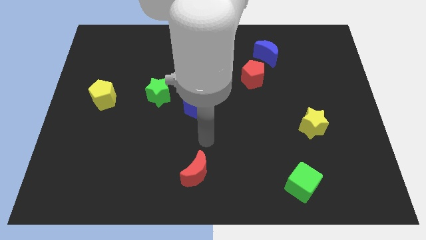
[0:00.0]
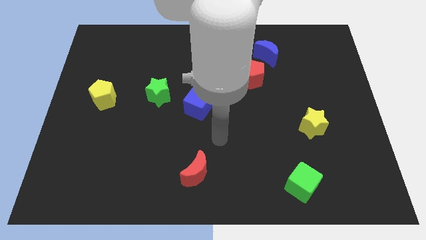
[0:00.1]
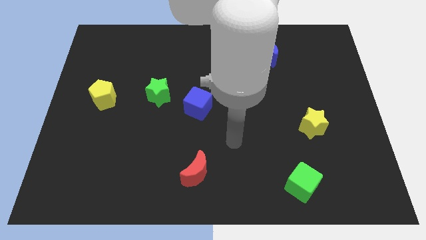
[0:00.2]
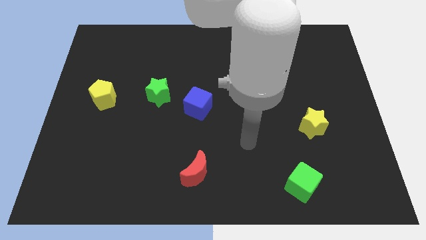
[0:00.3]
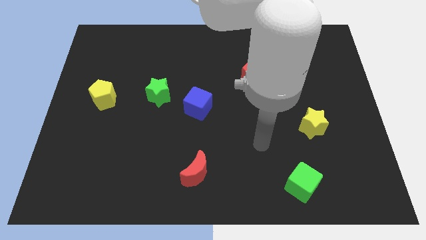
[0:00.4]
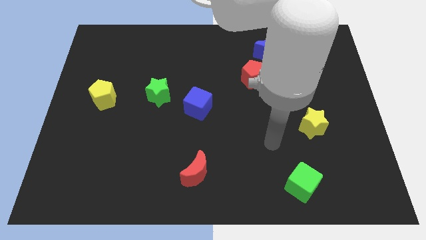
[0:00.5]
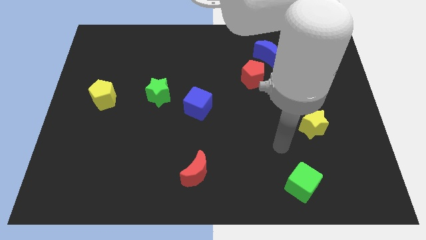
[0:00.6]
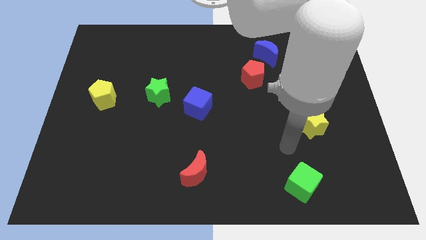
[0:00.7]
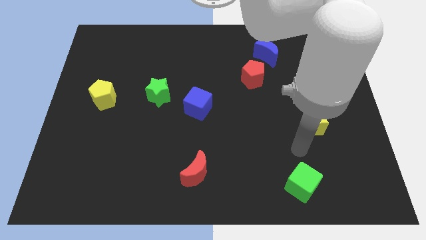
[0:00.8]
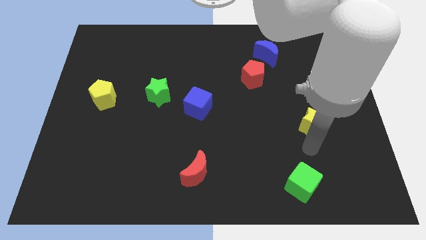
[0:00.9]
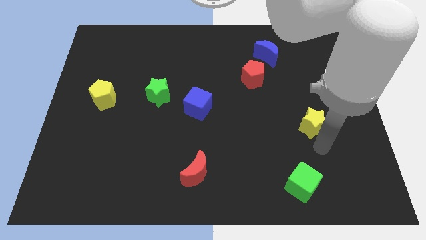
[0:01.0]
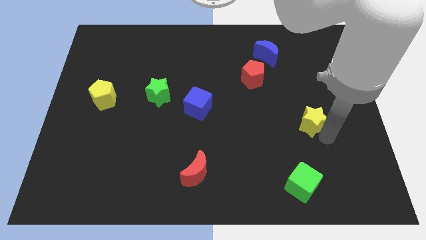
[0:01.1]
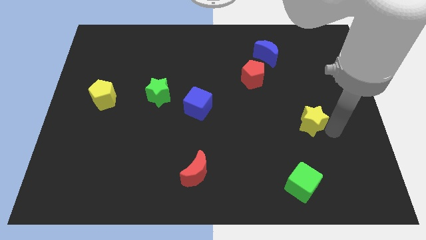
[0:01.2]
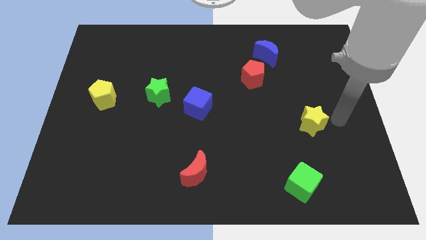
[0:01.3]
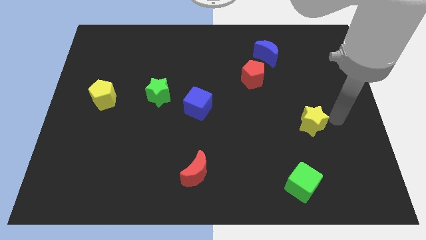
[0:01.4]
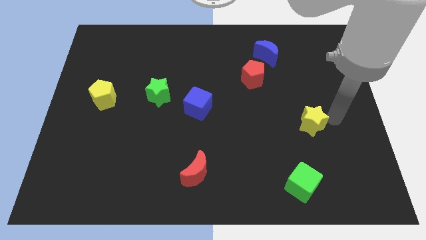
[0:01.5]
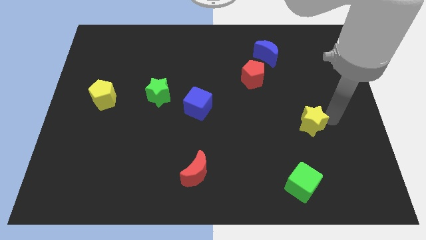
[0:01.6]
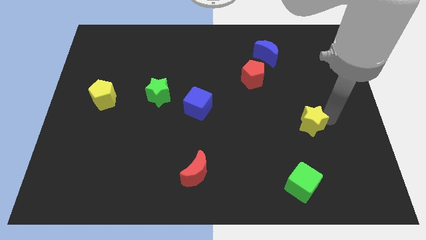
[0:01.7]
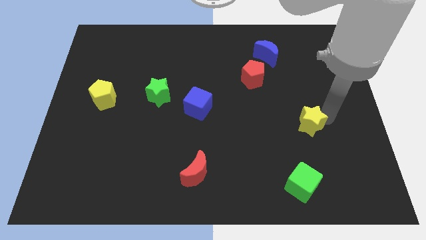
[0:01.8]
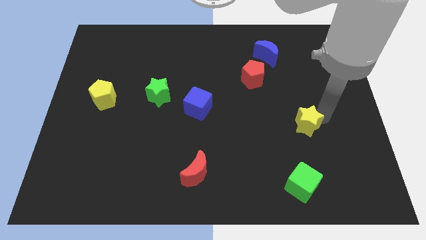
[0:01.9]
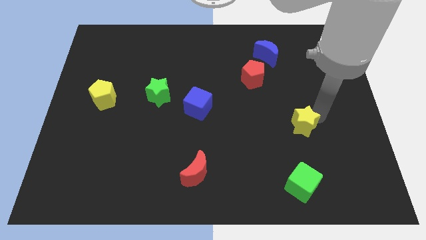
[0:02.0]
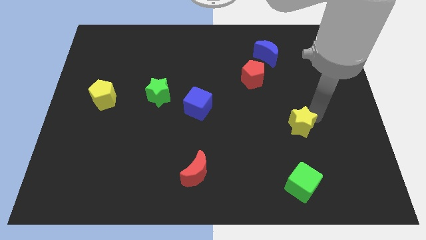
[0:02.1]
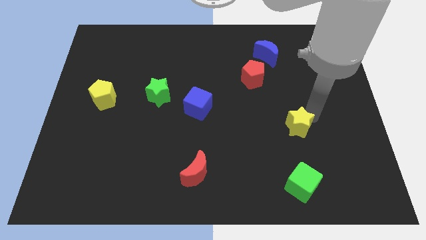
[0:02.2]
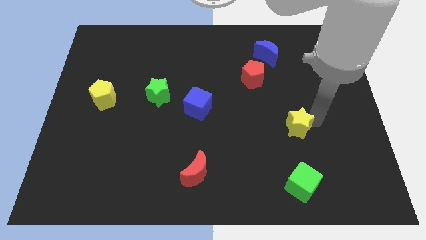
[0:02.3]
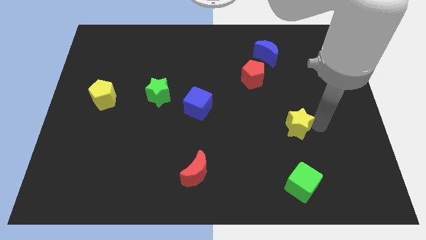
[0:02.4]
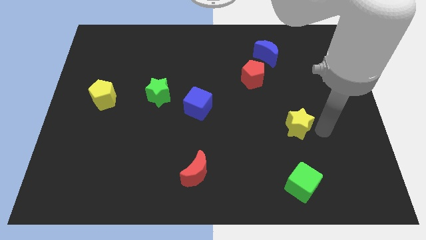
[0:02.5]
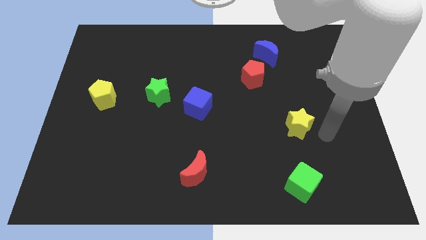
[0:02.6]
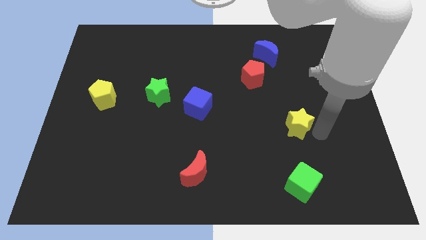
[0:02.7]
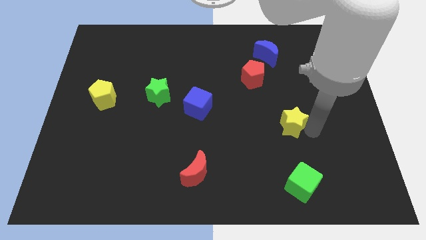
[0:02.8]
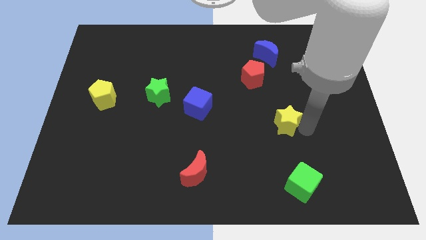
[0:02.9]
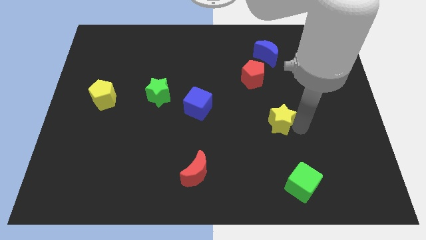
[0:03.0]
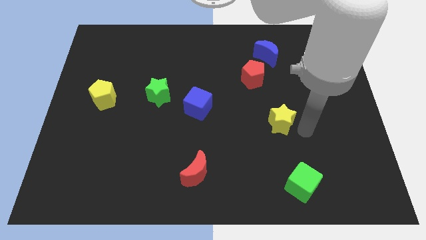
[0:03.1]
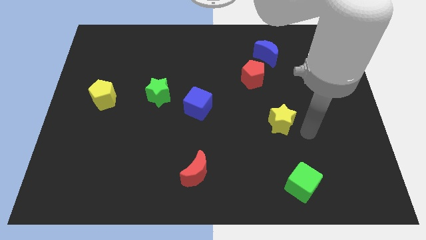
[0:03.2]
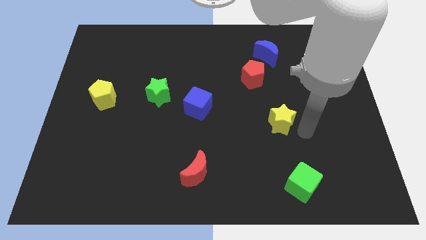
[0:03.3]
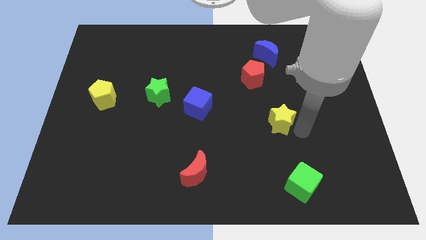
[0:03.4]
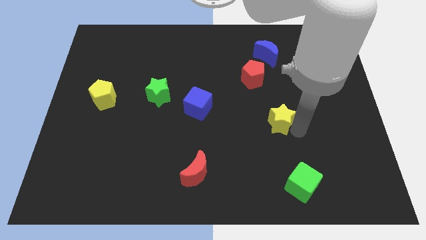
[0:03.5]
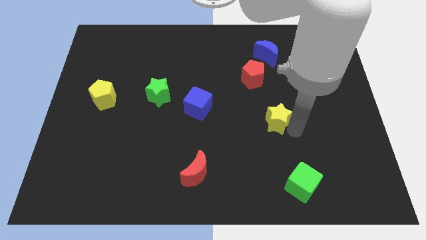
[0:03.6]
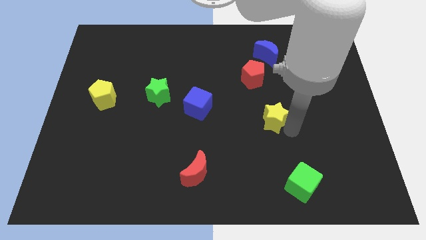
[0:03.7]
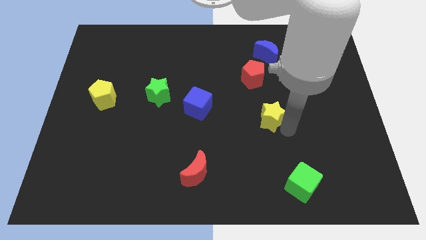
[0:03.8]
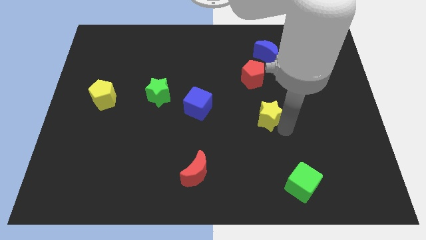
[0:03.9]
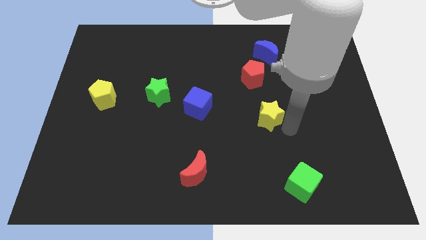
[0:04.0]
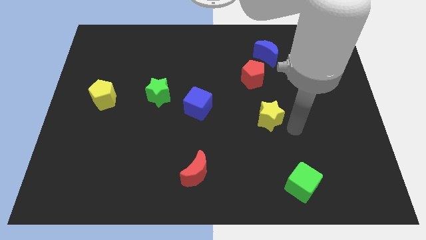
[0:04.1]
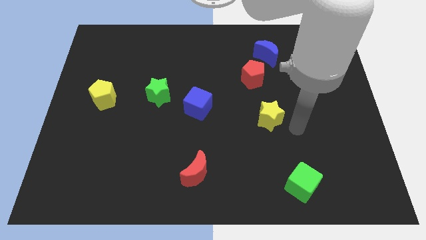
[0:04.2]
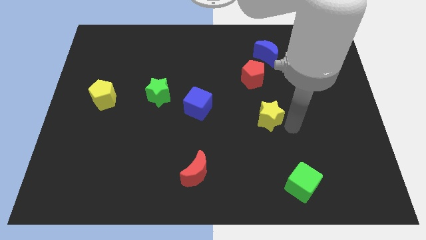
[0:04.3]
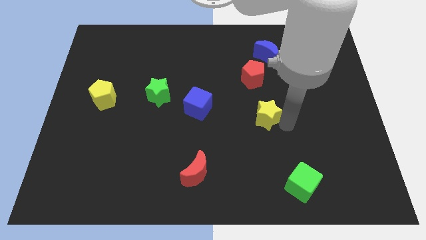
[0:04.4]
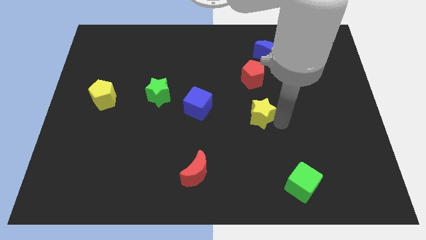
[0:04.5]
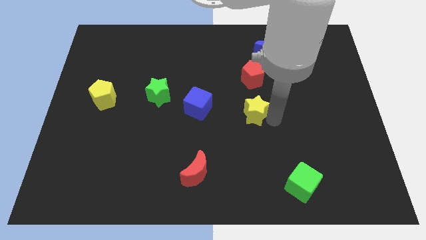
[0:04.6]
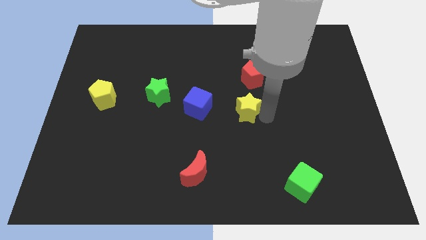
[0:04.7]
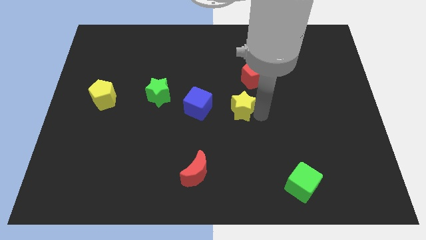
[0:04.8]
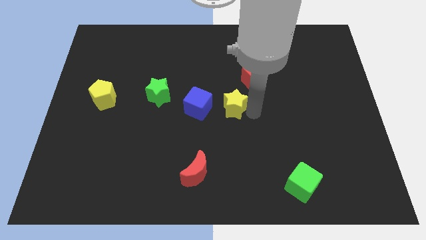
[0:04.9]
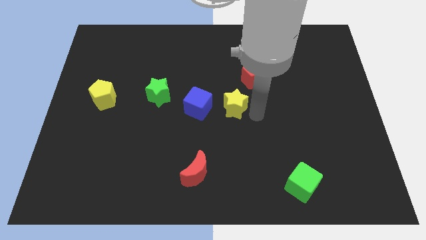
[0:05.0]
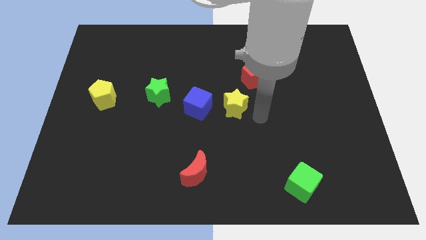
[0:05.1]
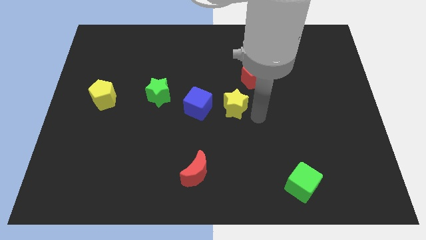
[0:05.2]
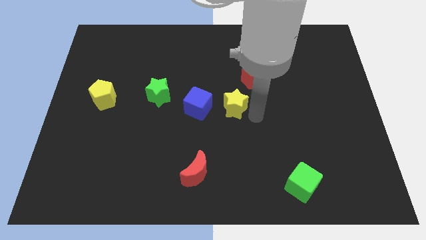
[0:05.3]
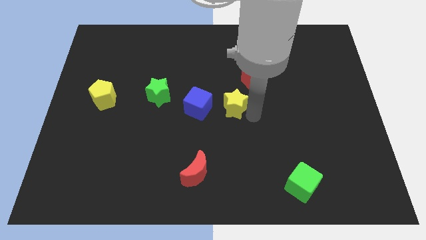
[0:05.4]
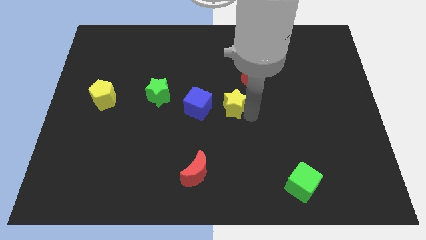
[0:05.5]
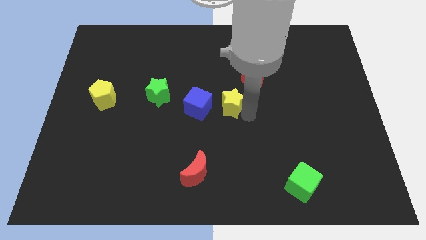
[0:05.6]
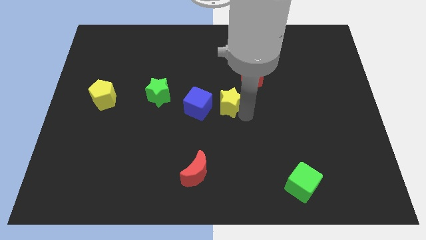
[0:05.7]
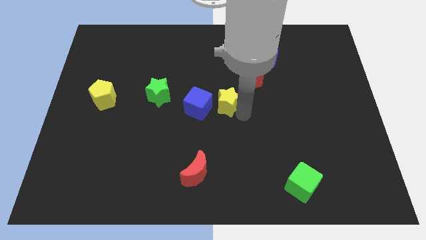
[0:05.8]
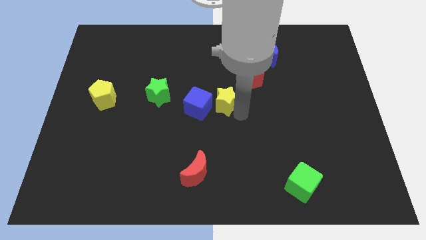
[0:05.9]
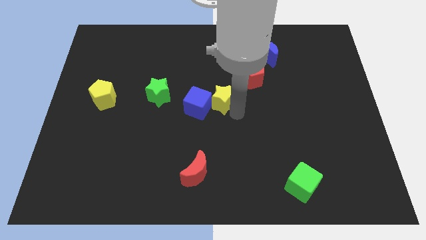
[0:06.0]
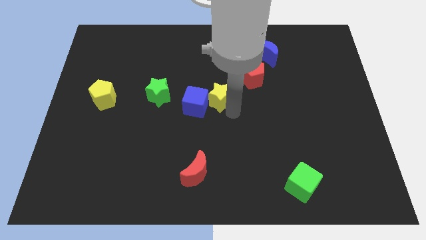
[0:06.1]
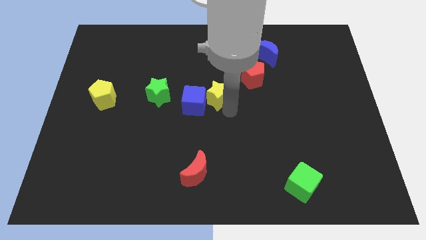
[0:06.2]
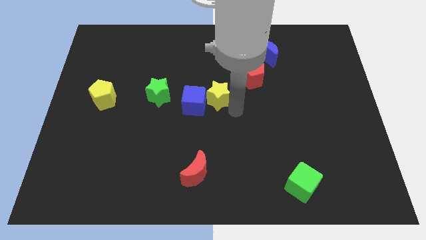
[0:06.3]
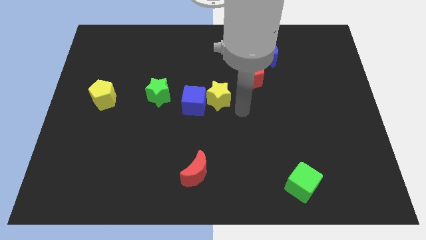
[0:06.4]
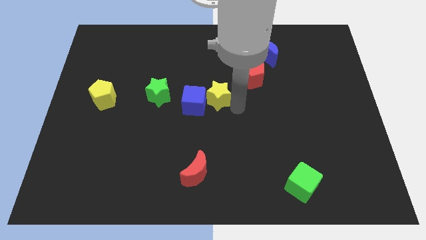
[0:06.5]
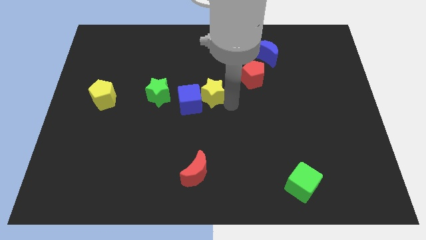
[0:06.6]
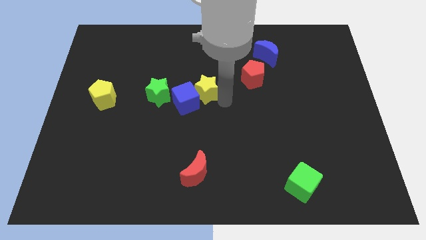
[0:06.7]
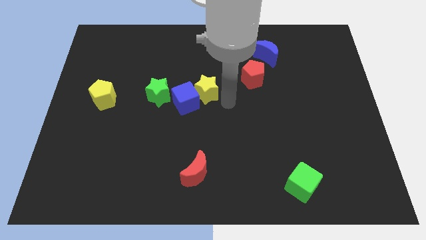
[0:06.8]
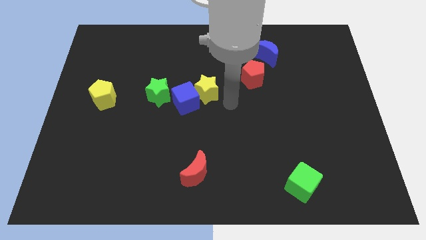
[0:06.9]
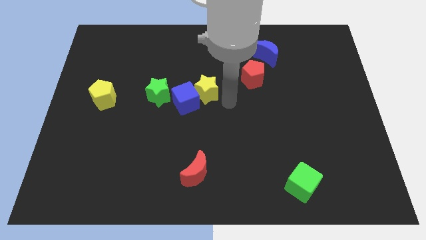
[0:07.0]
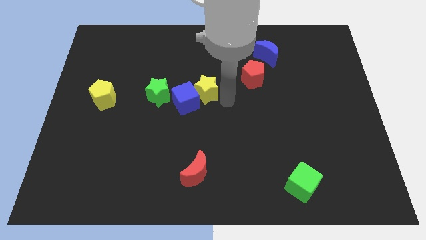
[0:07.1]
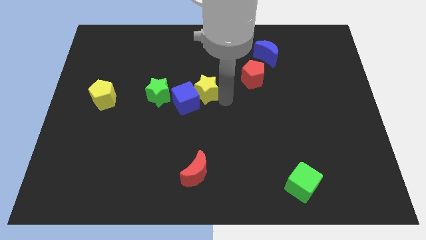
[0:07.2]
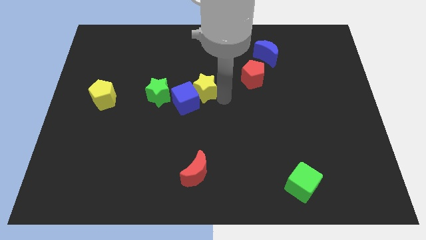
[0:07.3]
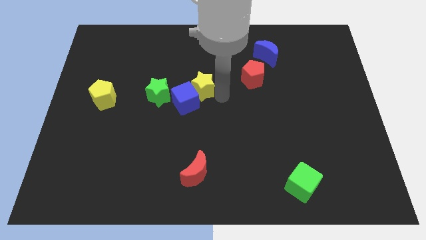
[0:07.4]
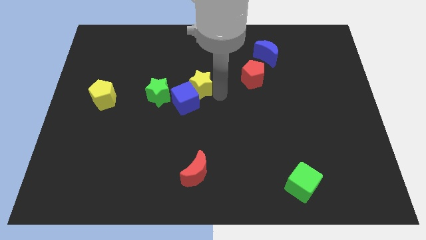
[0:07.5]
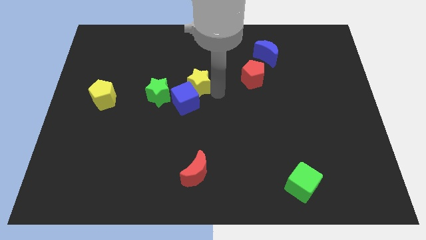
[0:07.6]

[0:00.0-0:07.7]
slide the yellow star to the top right of the green star
